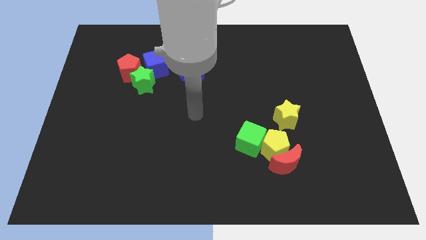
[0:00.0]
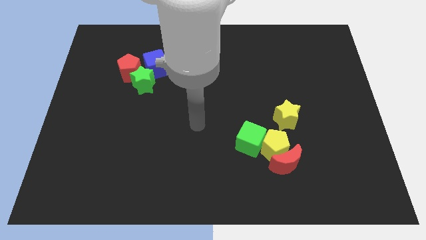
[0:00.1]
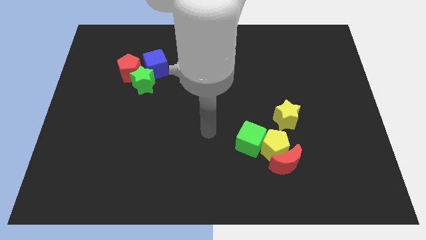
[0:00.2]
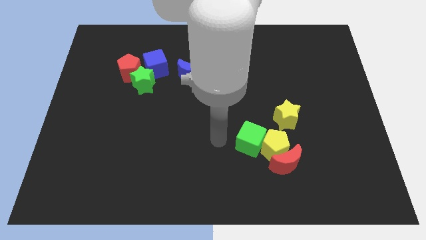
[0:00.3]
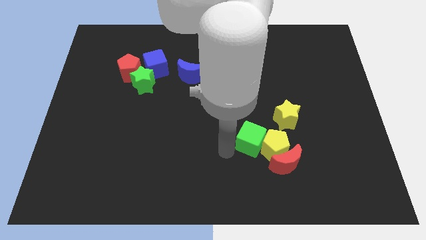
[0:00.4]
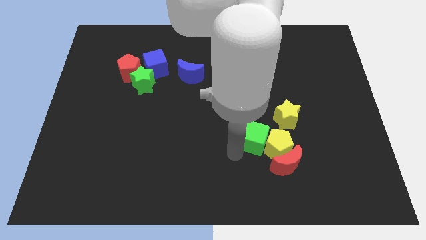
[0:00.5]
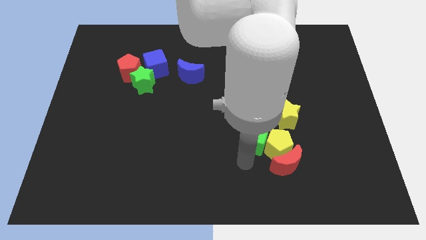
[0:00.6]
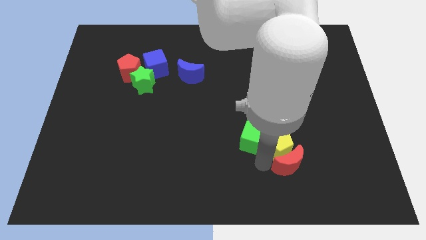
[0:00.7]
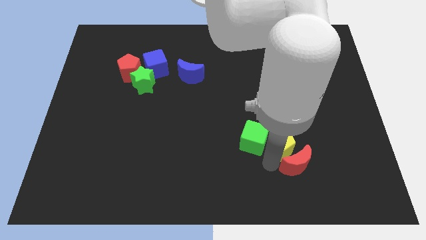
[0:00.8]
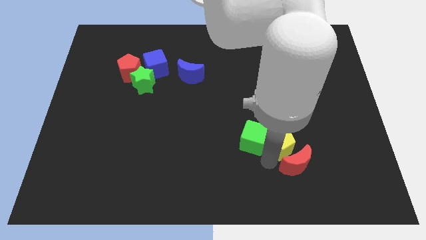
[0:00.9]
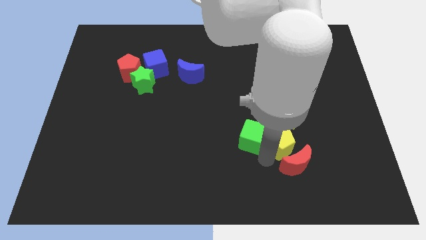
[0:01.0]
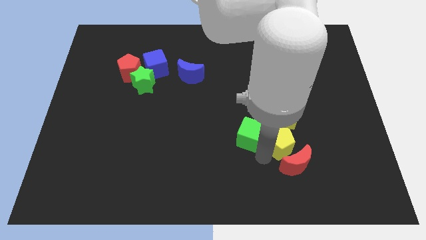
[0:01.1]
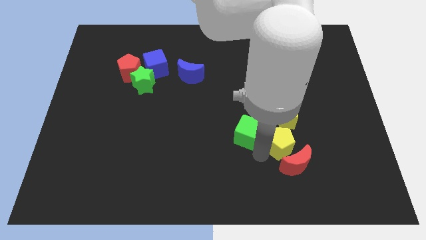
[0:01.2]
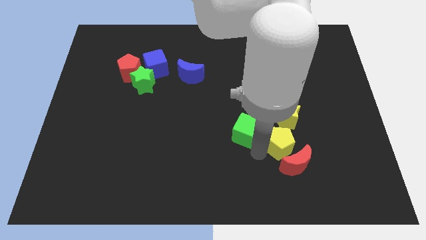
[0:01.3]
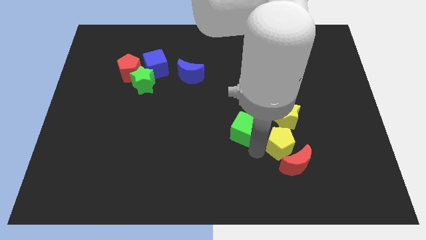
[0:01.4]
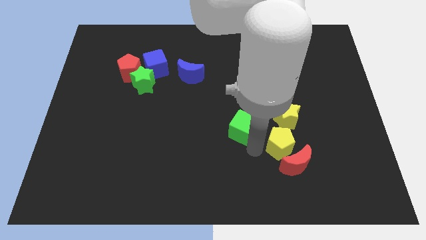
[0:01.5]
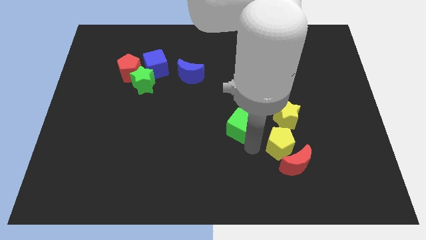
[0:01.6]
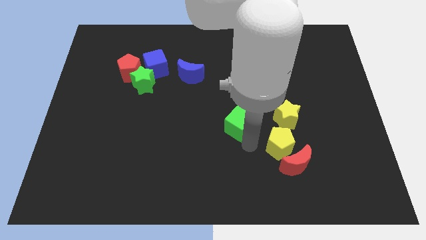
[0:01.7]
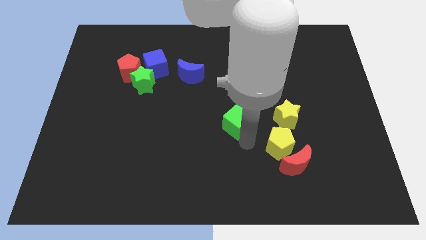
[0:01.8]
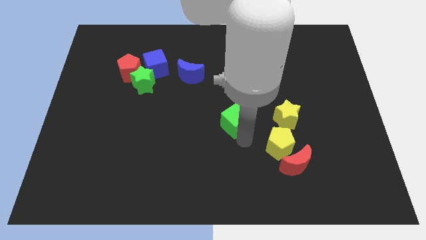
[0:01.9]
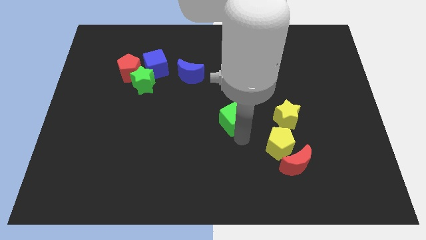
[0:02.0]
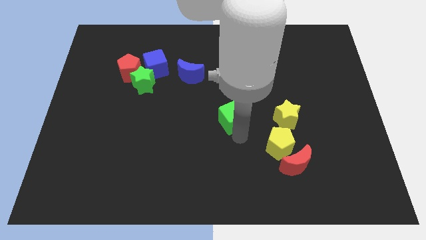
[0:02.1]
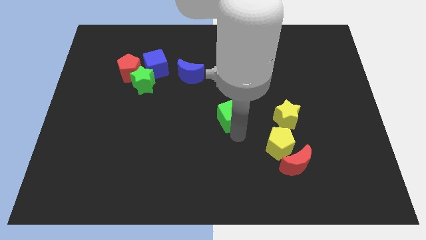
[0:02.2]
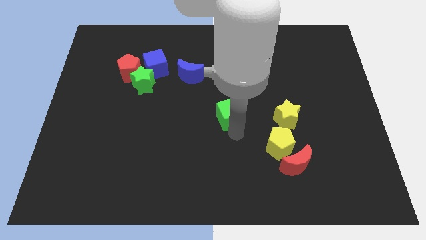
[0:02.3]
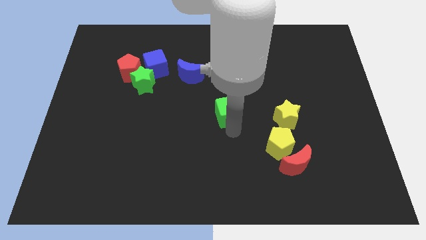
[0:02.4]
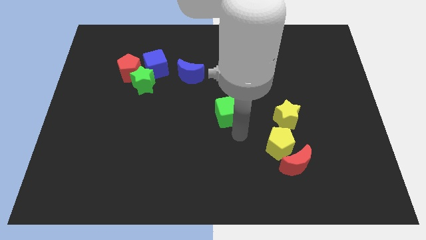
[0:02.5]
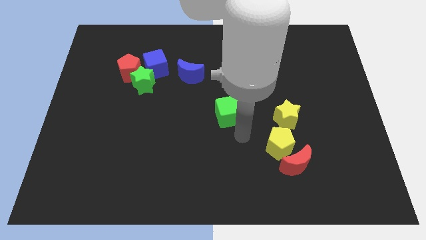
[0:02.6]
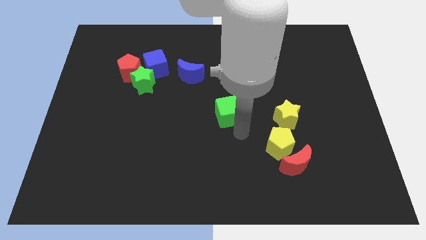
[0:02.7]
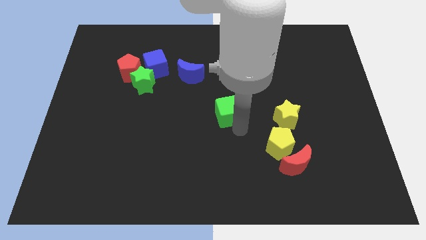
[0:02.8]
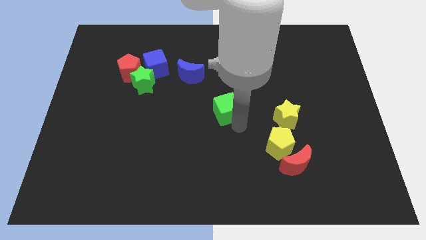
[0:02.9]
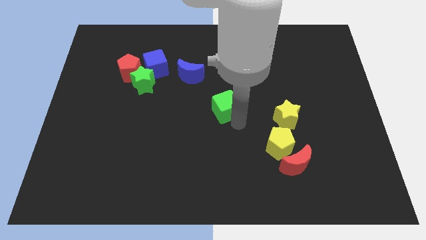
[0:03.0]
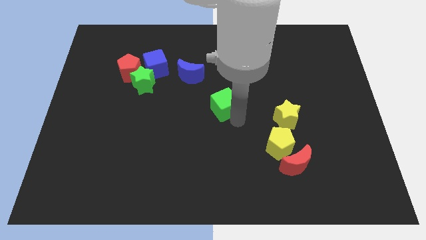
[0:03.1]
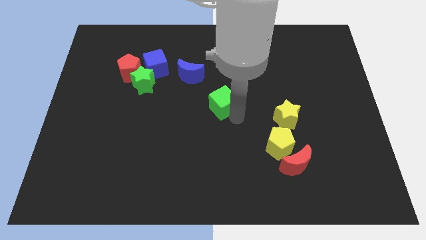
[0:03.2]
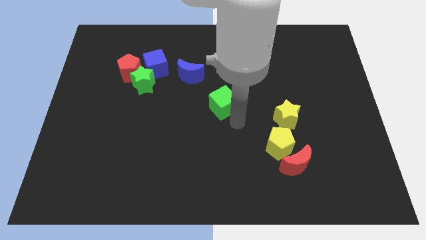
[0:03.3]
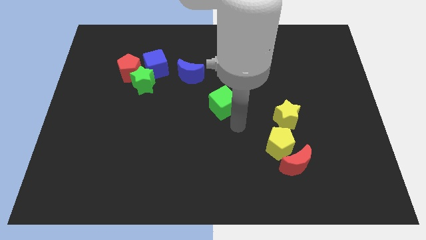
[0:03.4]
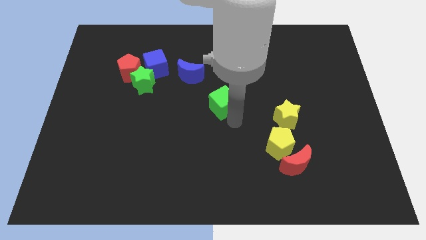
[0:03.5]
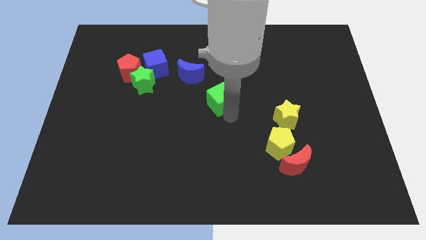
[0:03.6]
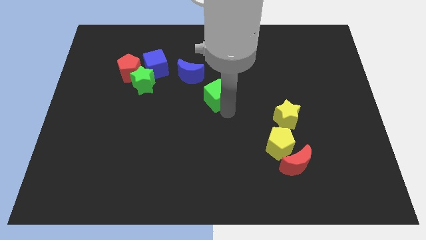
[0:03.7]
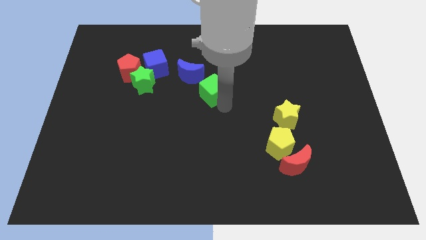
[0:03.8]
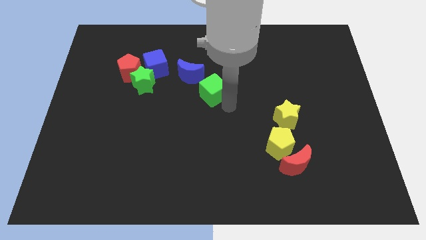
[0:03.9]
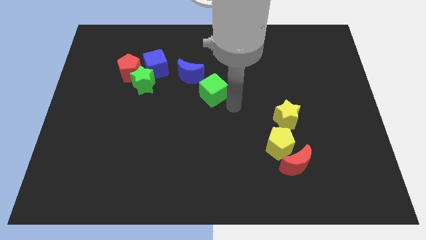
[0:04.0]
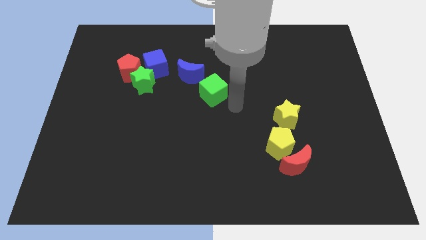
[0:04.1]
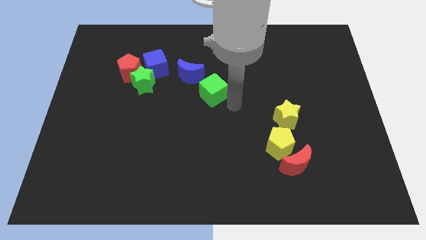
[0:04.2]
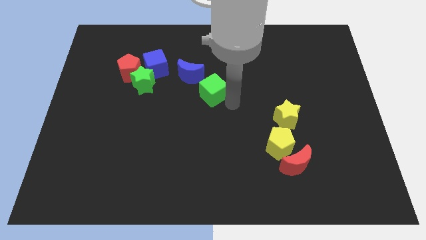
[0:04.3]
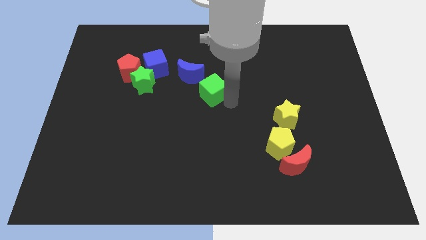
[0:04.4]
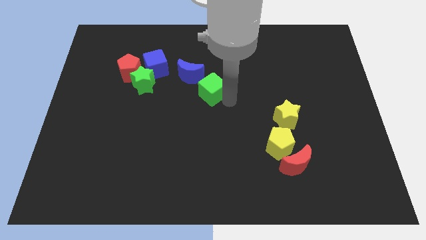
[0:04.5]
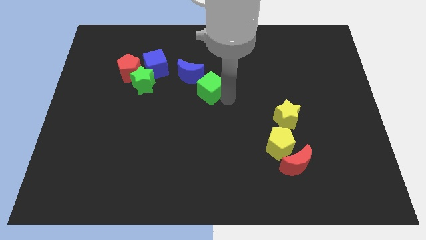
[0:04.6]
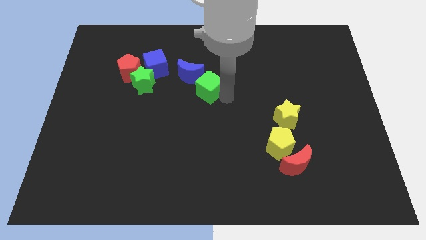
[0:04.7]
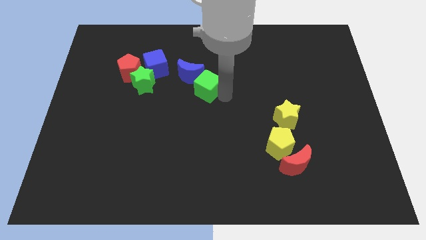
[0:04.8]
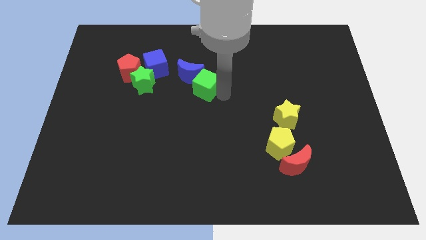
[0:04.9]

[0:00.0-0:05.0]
slide the green cube towards the blue moon

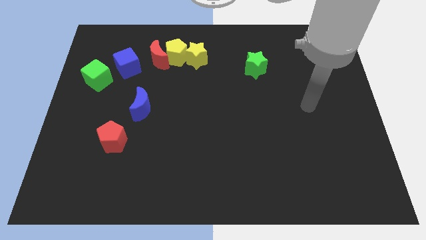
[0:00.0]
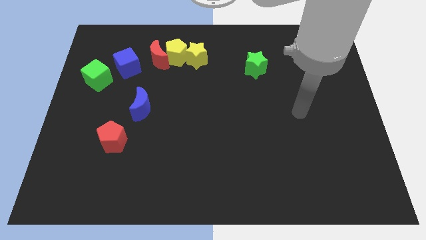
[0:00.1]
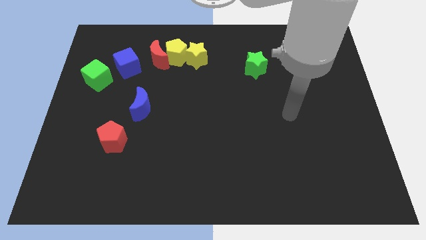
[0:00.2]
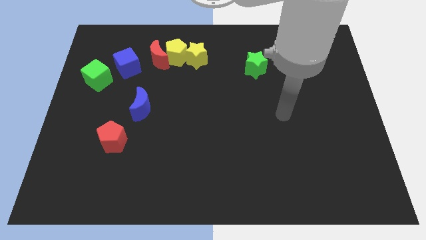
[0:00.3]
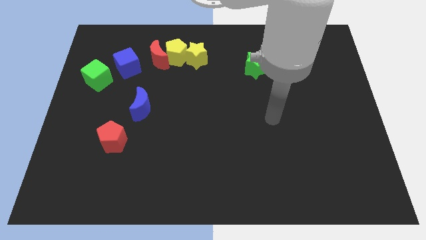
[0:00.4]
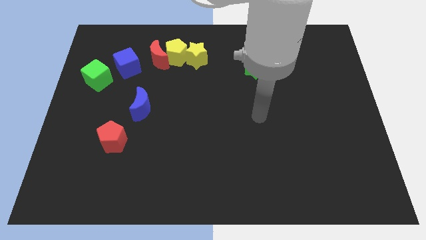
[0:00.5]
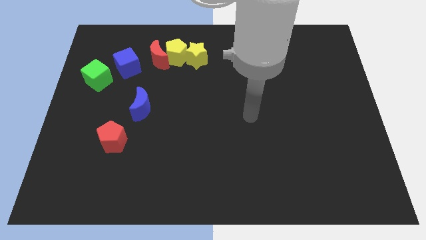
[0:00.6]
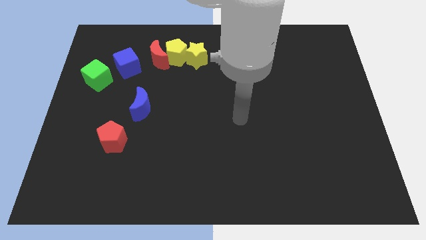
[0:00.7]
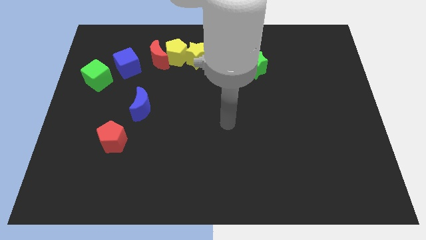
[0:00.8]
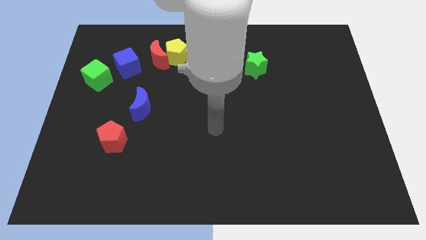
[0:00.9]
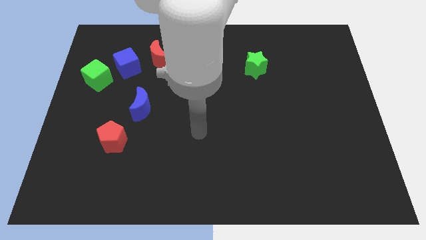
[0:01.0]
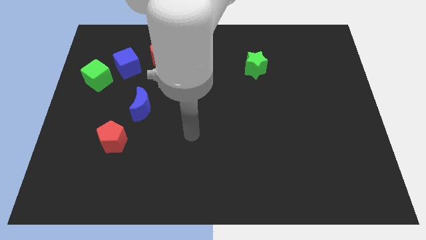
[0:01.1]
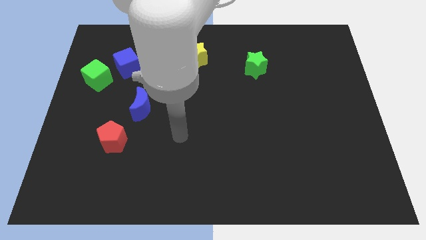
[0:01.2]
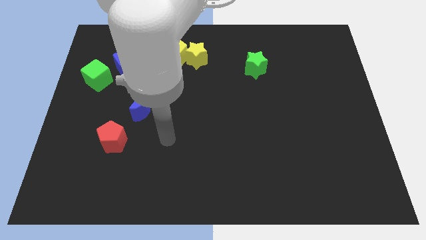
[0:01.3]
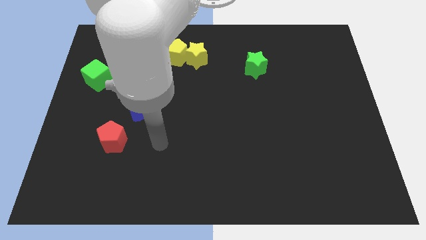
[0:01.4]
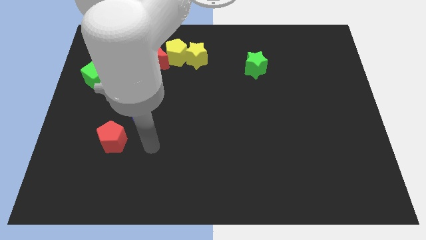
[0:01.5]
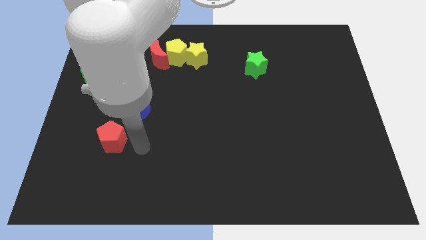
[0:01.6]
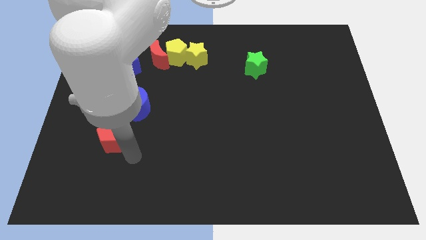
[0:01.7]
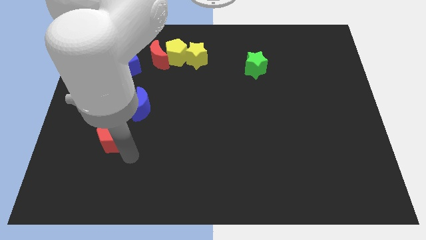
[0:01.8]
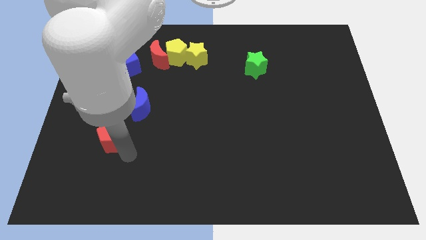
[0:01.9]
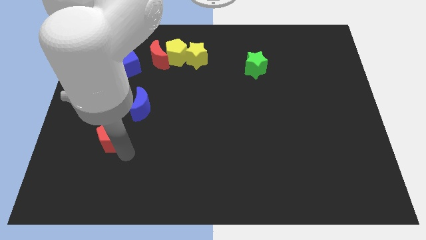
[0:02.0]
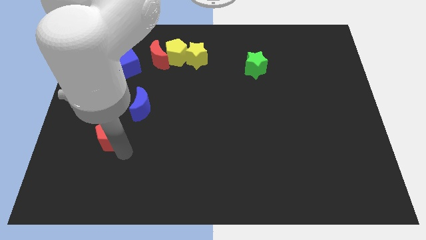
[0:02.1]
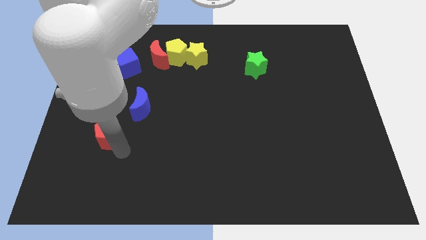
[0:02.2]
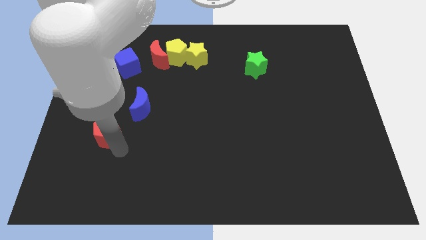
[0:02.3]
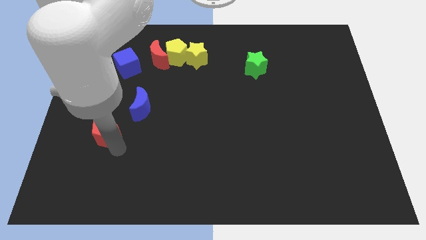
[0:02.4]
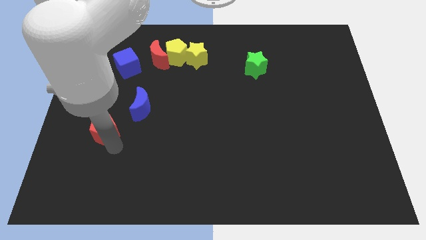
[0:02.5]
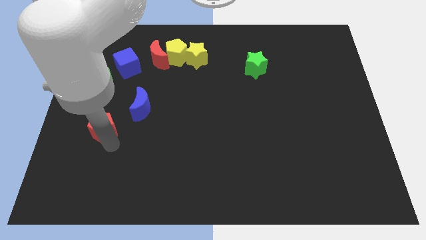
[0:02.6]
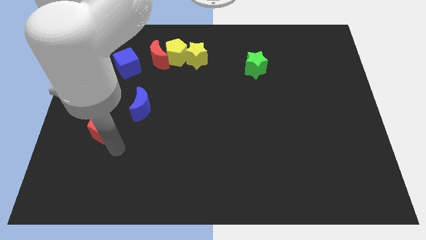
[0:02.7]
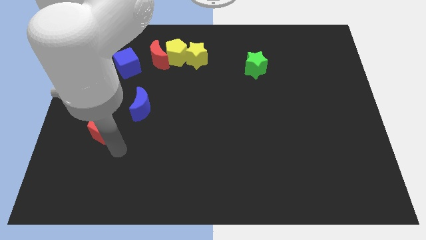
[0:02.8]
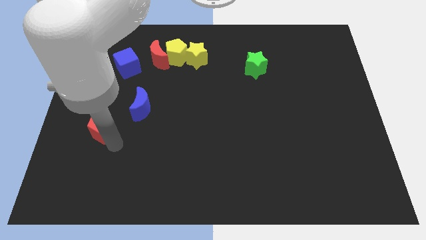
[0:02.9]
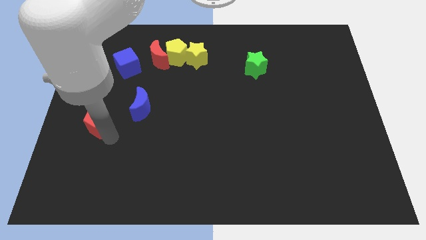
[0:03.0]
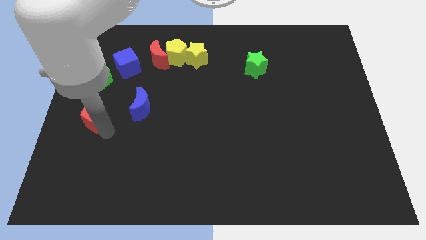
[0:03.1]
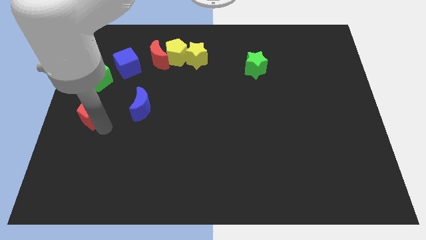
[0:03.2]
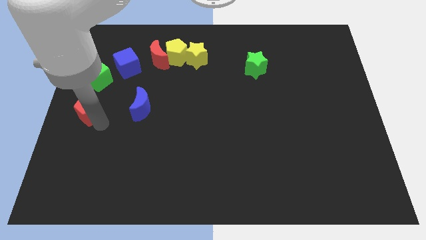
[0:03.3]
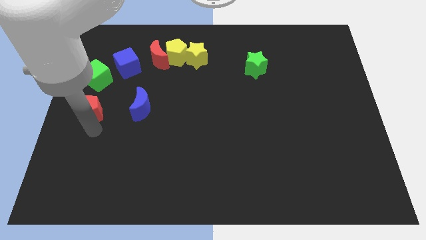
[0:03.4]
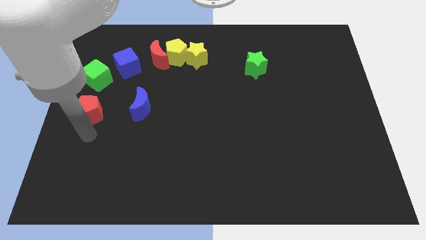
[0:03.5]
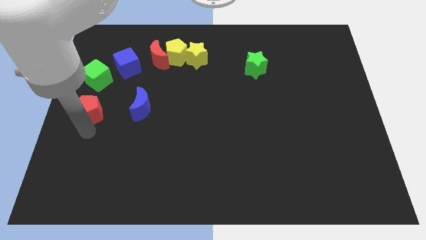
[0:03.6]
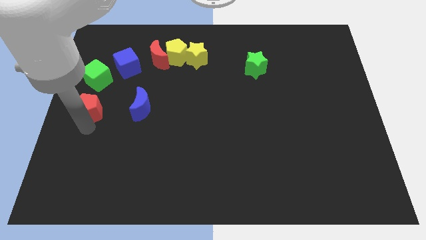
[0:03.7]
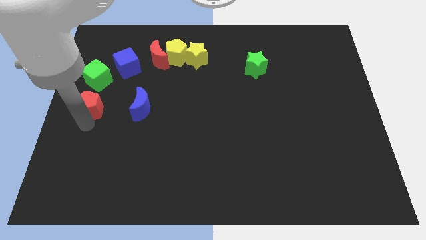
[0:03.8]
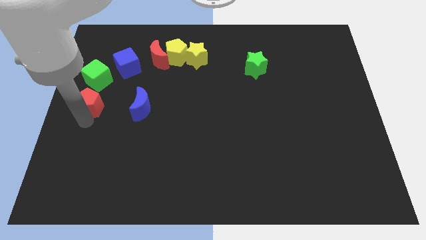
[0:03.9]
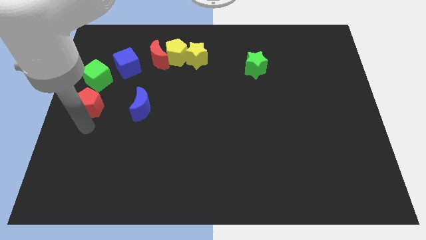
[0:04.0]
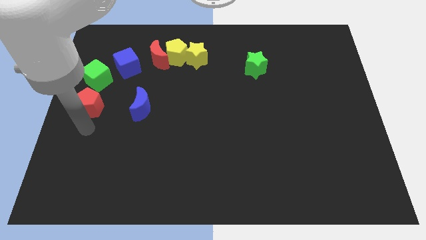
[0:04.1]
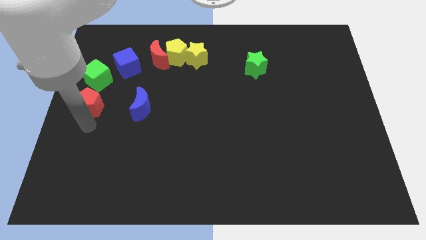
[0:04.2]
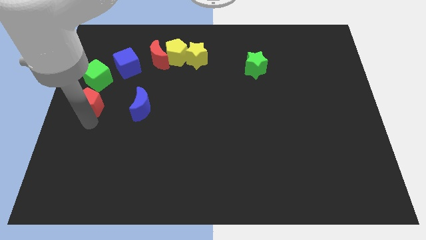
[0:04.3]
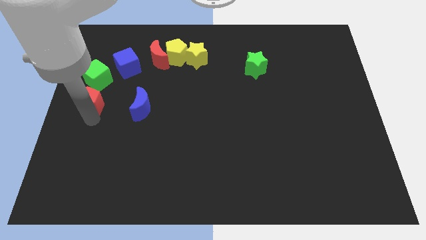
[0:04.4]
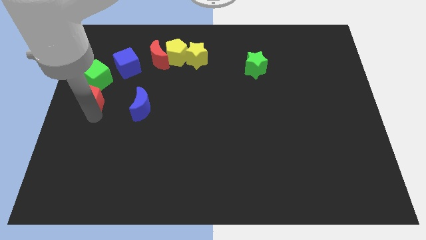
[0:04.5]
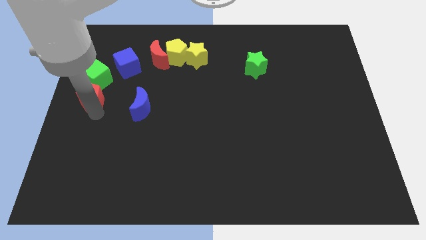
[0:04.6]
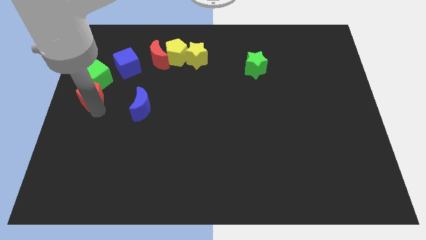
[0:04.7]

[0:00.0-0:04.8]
put the red pentagon close to the green cube
